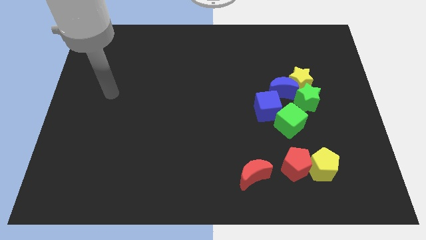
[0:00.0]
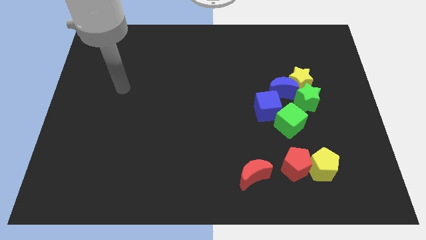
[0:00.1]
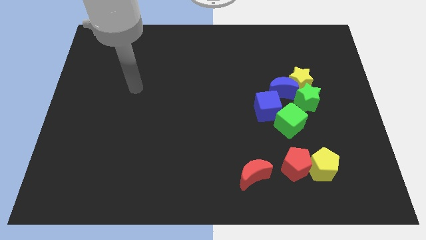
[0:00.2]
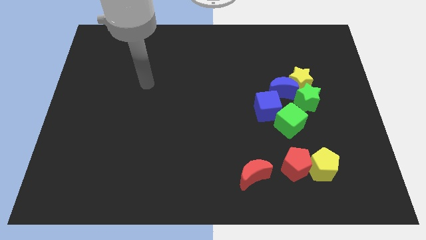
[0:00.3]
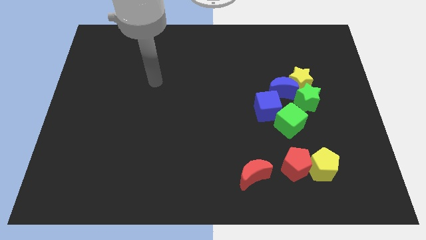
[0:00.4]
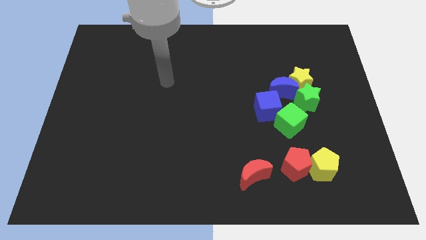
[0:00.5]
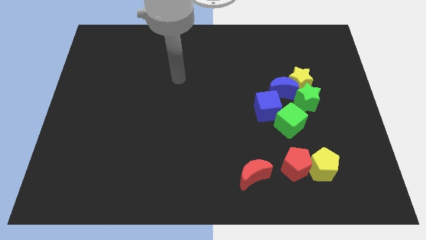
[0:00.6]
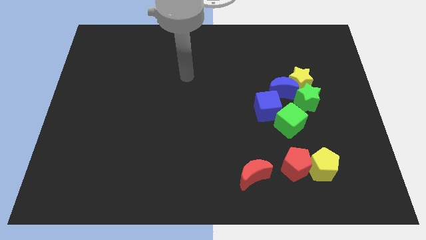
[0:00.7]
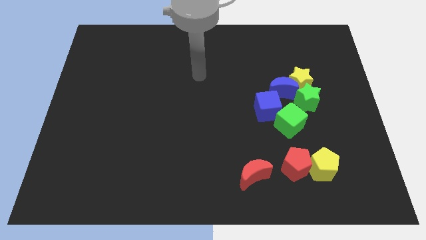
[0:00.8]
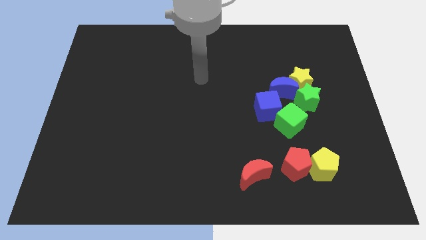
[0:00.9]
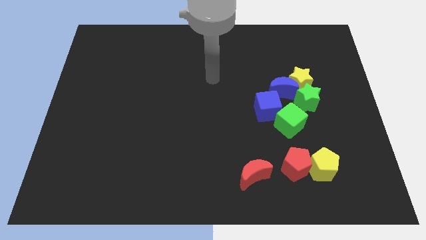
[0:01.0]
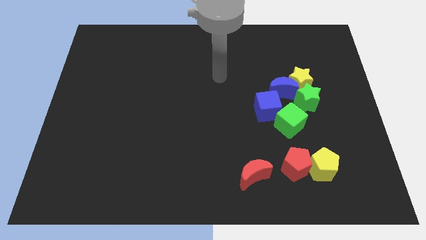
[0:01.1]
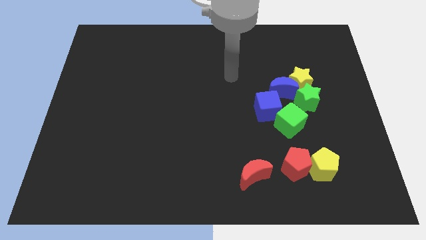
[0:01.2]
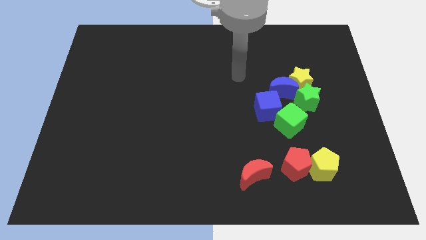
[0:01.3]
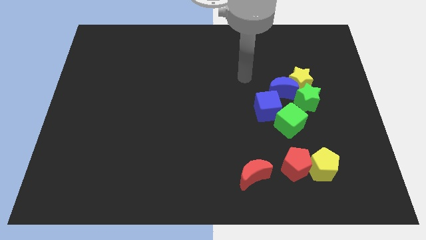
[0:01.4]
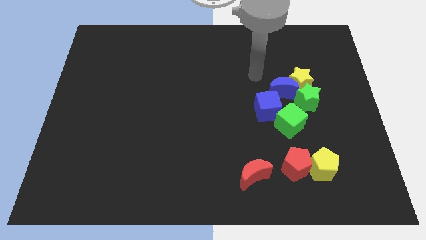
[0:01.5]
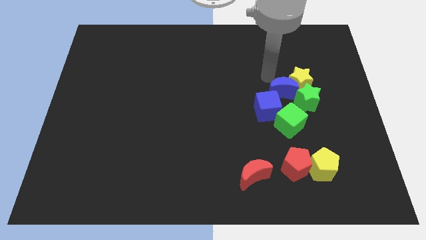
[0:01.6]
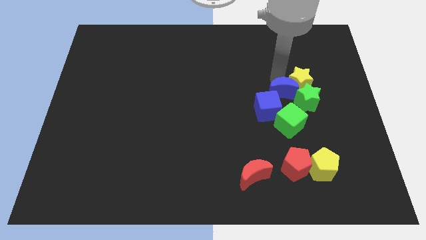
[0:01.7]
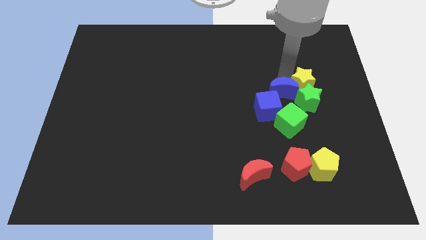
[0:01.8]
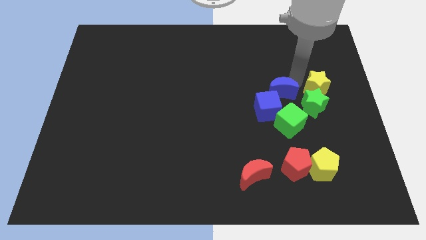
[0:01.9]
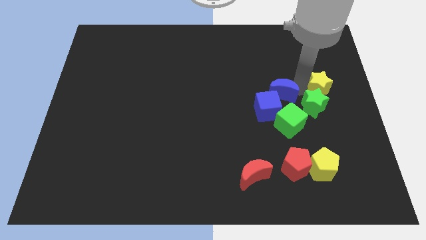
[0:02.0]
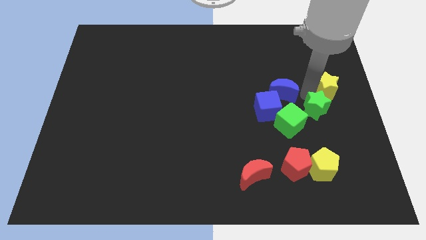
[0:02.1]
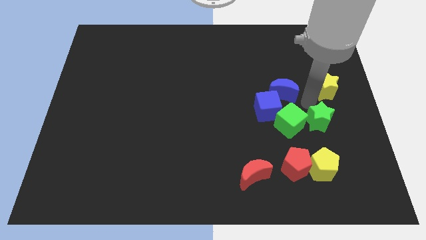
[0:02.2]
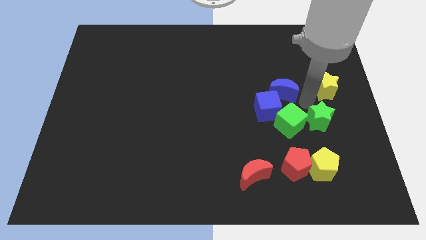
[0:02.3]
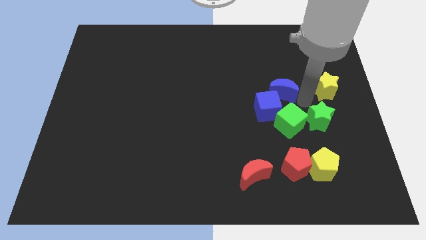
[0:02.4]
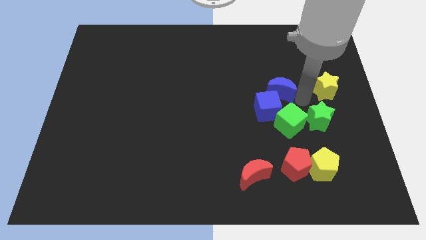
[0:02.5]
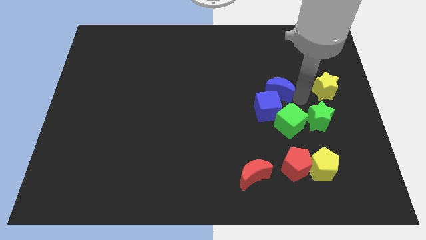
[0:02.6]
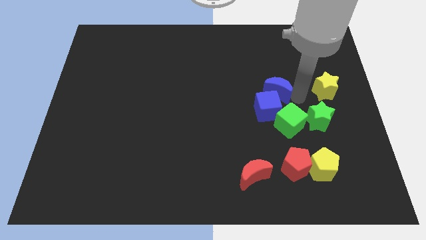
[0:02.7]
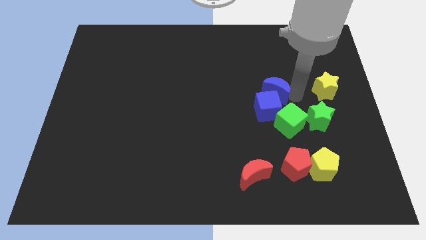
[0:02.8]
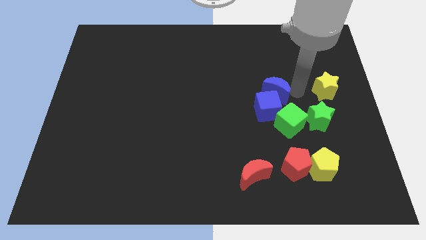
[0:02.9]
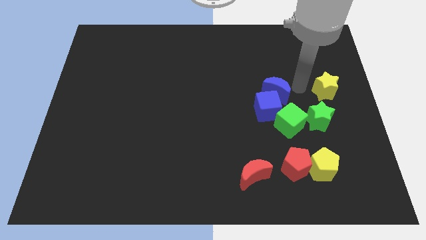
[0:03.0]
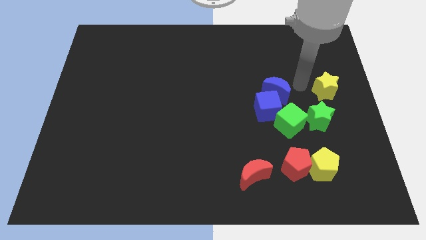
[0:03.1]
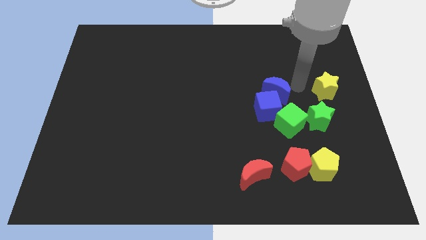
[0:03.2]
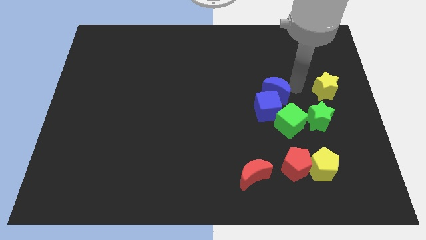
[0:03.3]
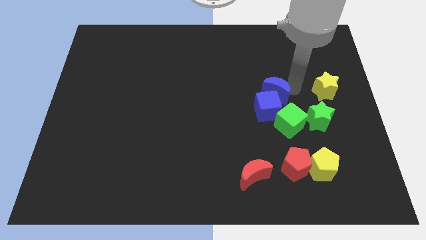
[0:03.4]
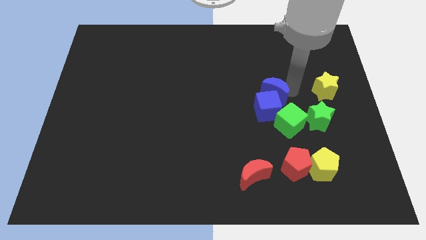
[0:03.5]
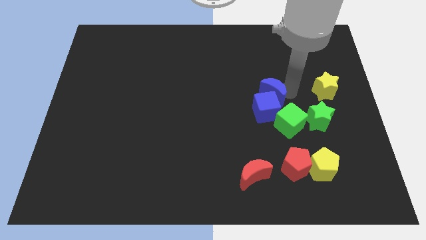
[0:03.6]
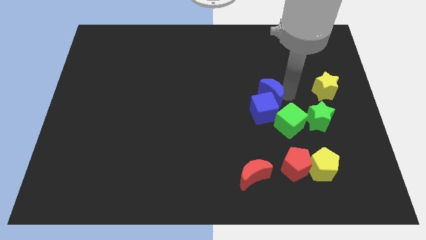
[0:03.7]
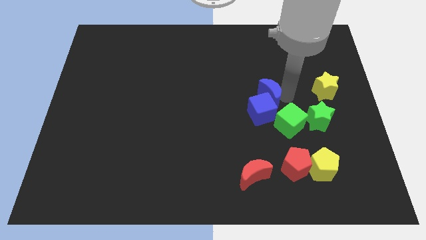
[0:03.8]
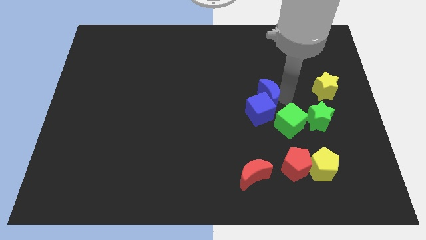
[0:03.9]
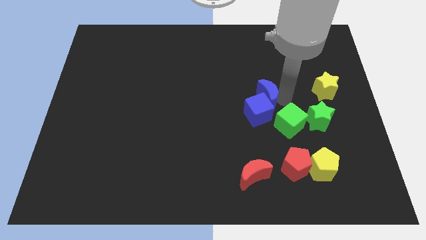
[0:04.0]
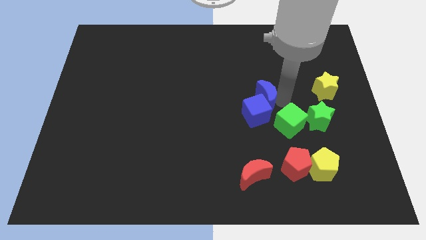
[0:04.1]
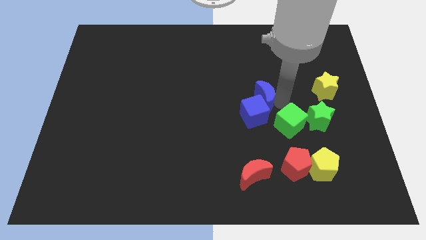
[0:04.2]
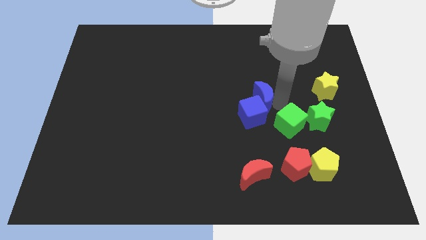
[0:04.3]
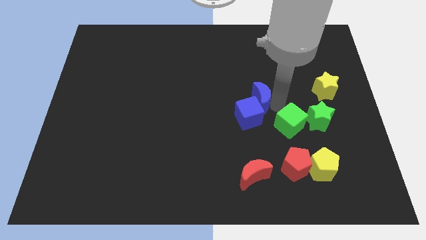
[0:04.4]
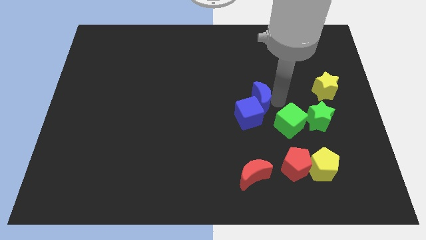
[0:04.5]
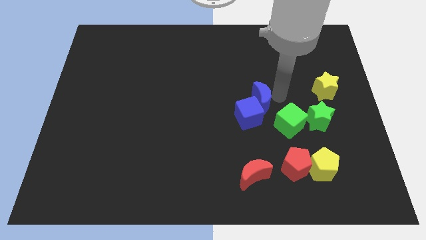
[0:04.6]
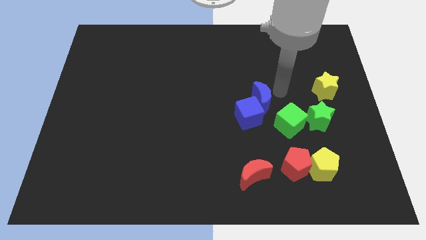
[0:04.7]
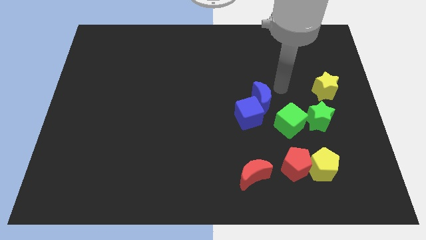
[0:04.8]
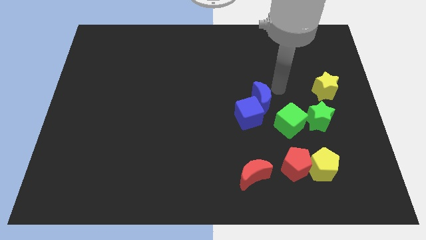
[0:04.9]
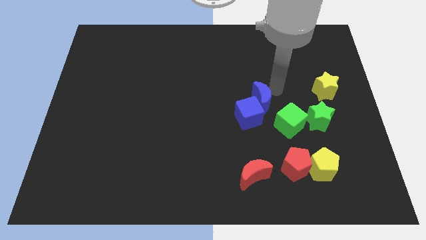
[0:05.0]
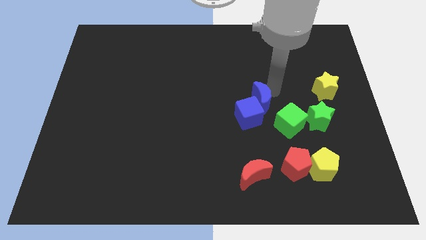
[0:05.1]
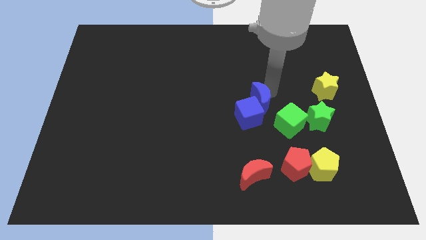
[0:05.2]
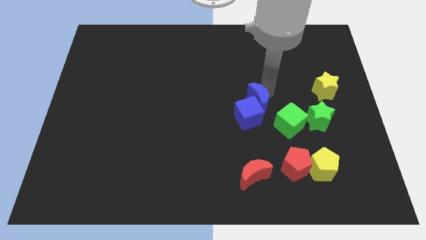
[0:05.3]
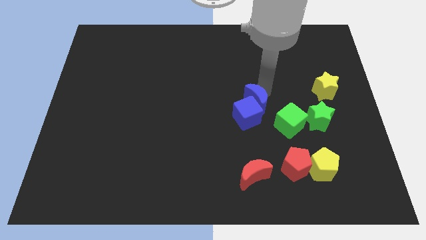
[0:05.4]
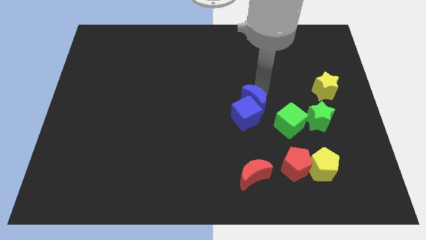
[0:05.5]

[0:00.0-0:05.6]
slide the blue moon a little down and then to the left

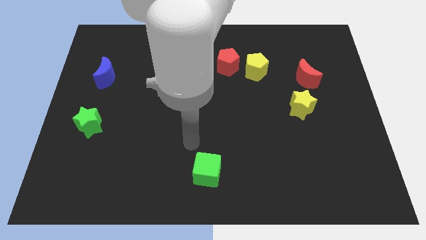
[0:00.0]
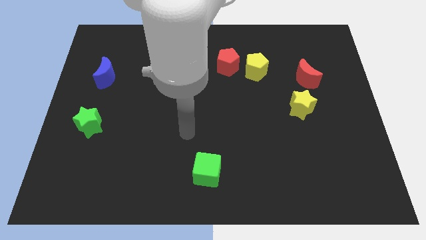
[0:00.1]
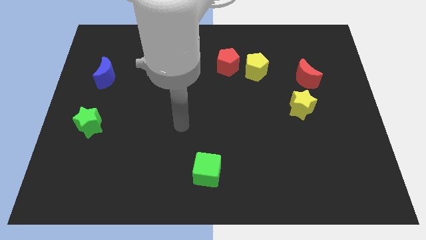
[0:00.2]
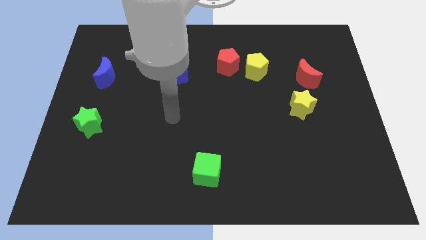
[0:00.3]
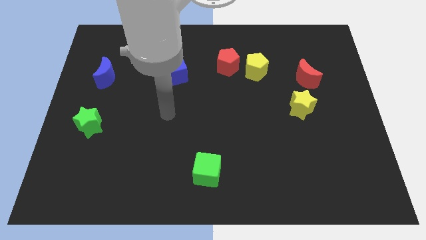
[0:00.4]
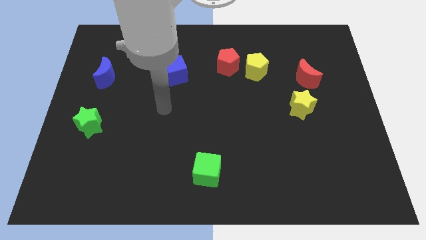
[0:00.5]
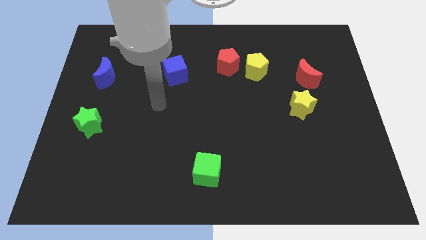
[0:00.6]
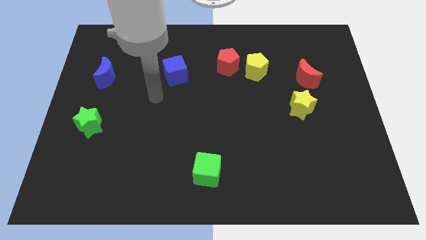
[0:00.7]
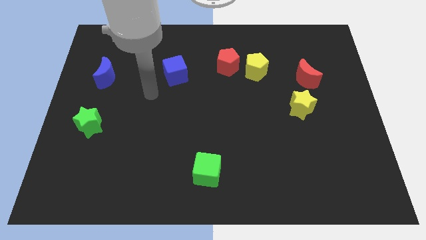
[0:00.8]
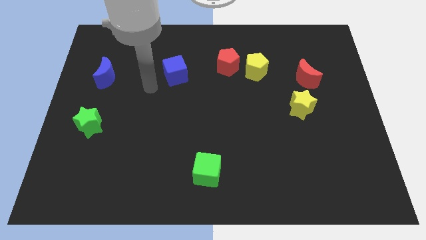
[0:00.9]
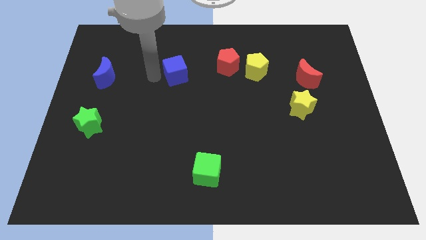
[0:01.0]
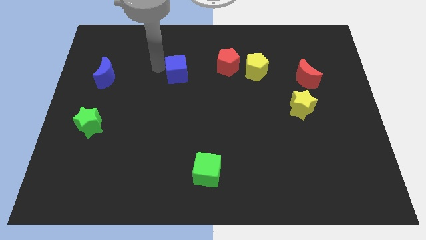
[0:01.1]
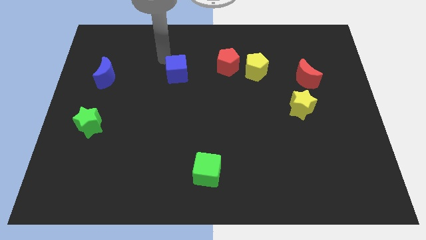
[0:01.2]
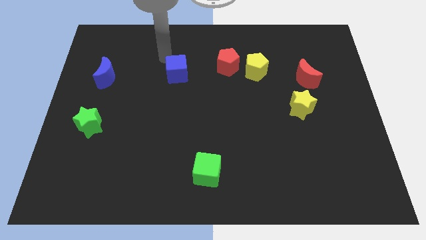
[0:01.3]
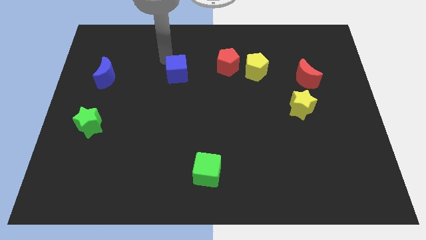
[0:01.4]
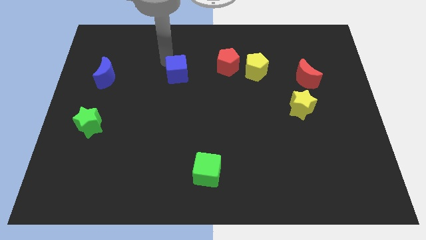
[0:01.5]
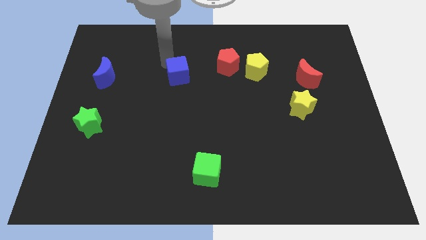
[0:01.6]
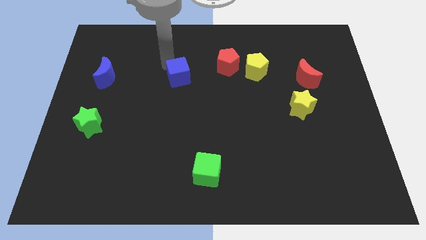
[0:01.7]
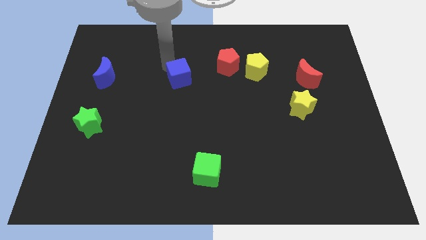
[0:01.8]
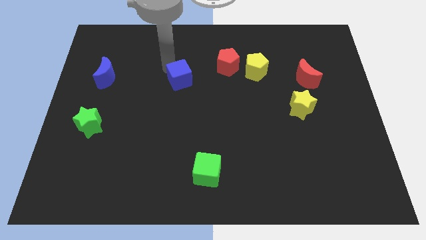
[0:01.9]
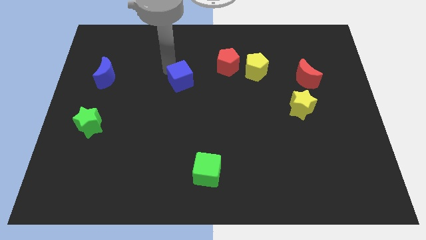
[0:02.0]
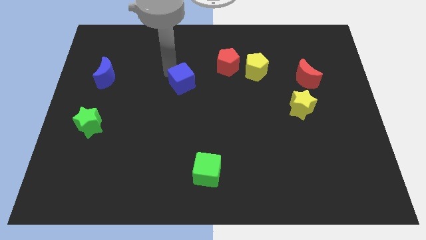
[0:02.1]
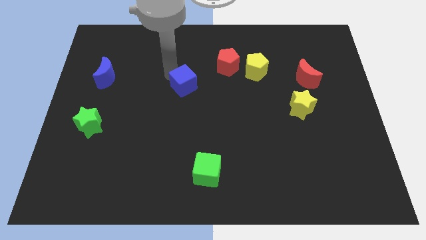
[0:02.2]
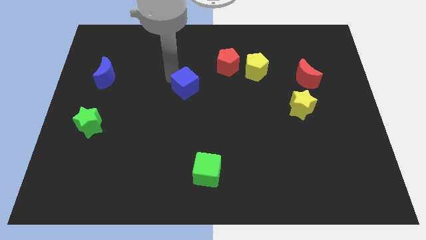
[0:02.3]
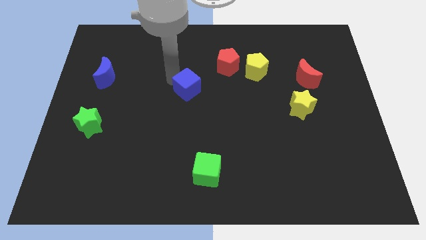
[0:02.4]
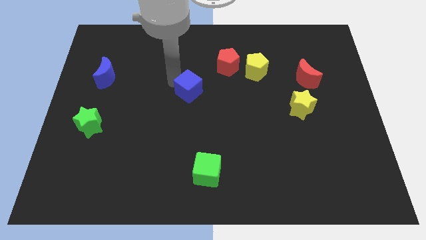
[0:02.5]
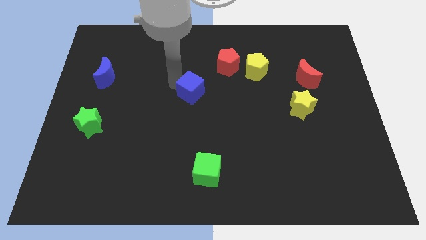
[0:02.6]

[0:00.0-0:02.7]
push the blue cube a bit down and to the right
